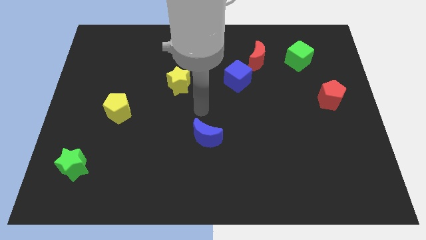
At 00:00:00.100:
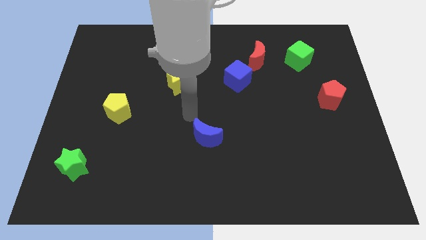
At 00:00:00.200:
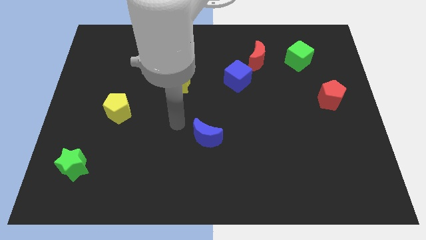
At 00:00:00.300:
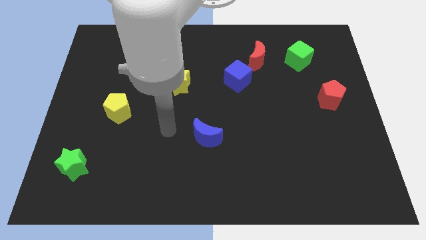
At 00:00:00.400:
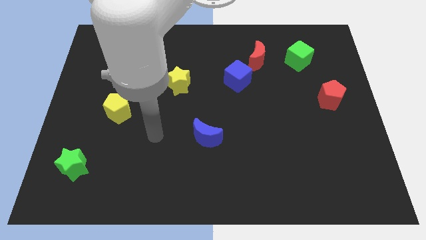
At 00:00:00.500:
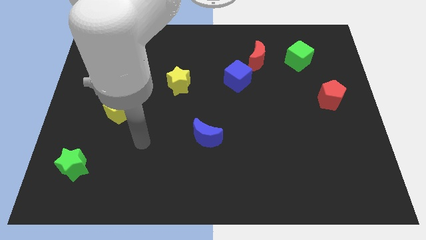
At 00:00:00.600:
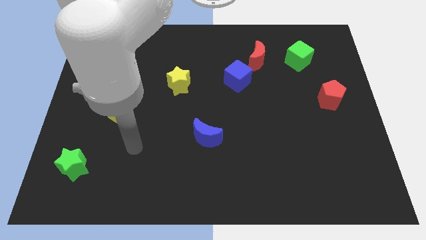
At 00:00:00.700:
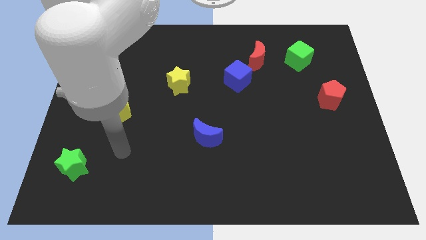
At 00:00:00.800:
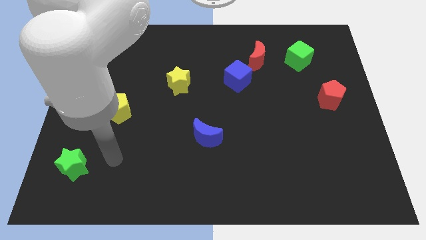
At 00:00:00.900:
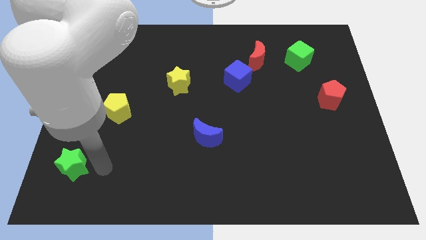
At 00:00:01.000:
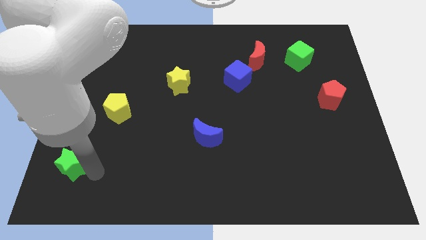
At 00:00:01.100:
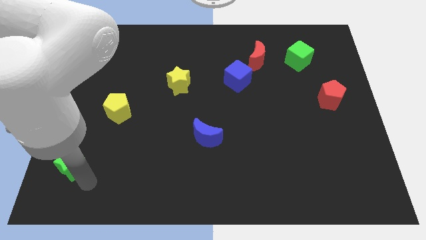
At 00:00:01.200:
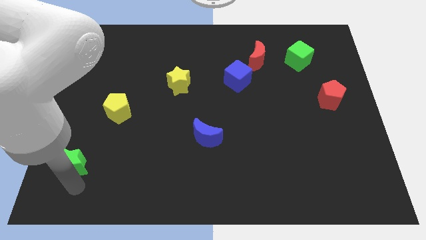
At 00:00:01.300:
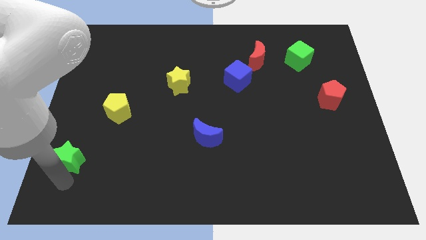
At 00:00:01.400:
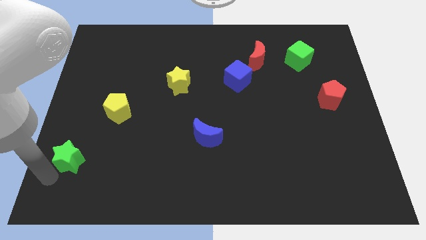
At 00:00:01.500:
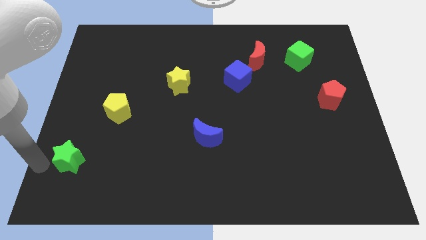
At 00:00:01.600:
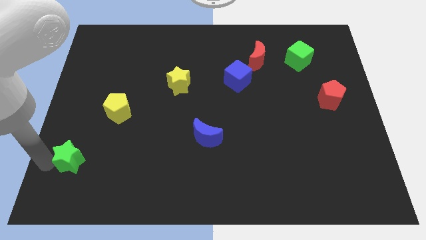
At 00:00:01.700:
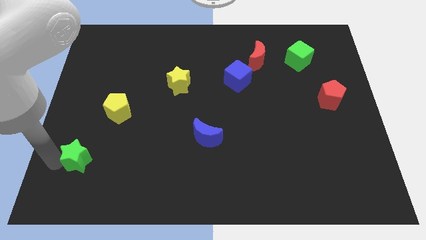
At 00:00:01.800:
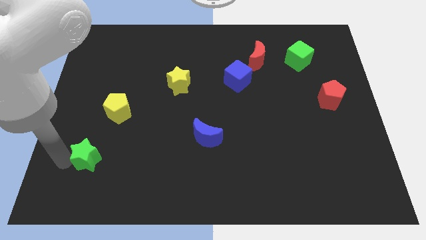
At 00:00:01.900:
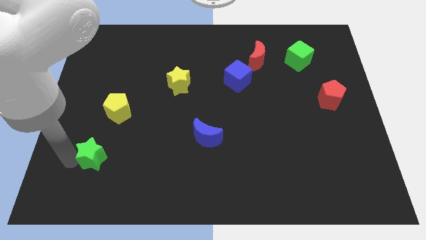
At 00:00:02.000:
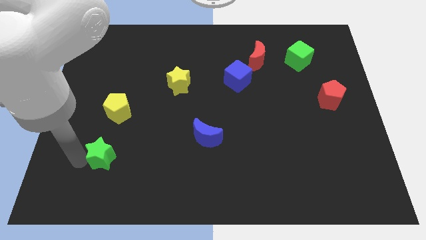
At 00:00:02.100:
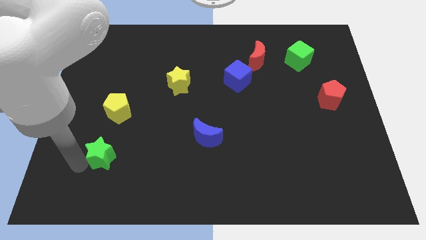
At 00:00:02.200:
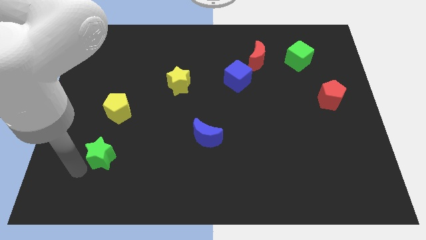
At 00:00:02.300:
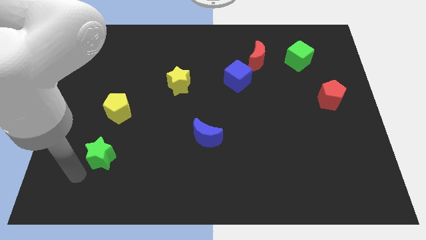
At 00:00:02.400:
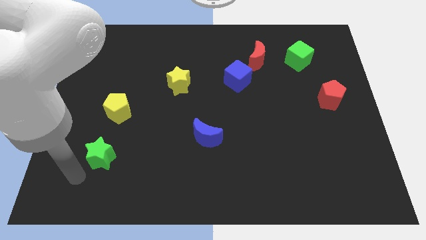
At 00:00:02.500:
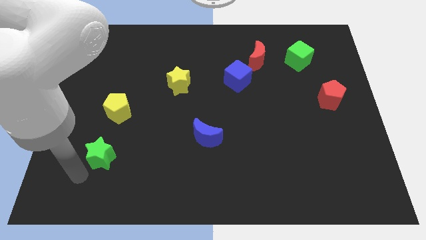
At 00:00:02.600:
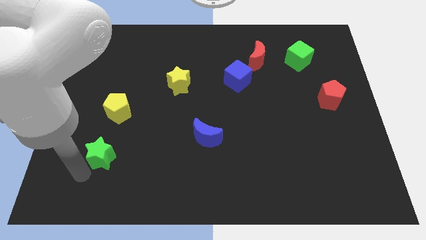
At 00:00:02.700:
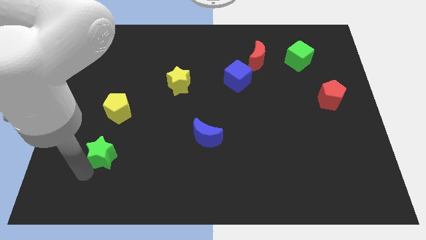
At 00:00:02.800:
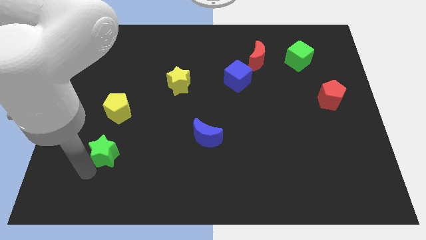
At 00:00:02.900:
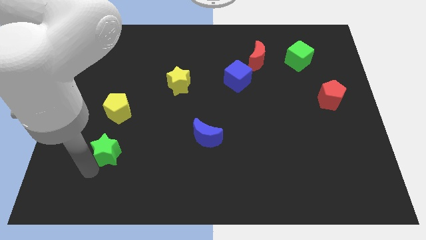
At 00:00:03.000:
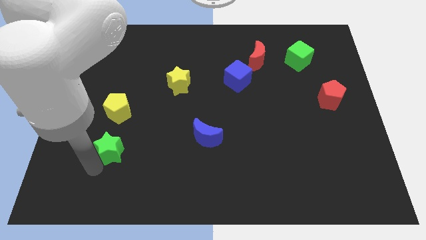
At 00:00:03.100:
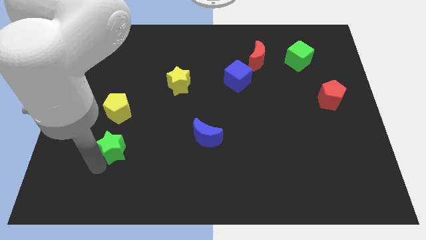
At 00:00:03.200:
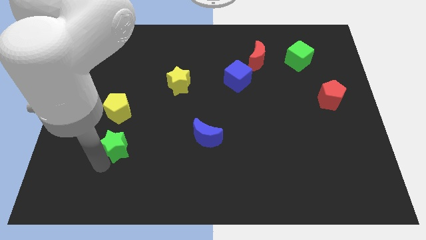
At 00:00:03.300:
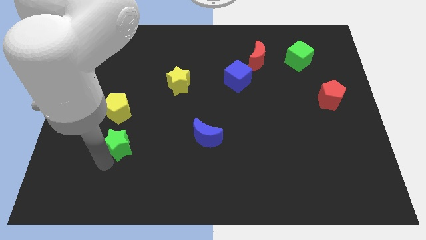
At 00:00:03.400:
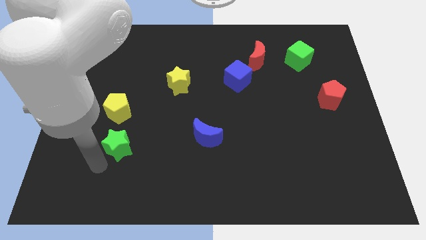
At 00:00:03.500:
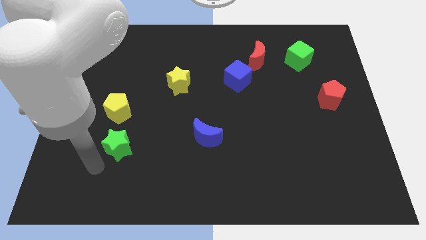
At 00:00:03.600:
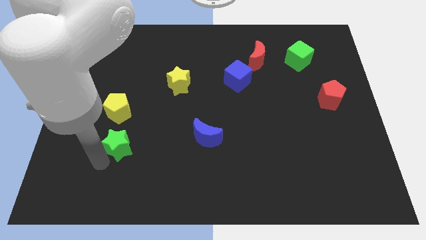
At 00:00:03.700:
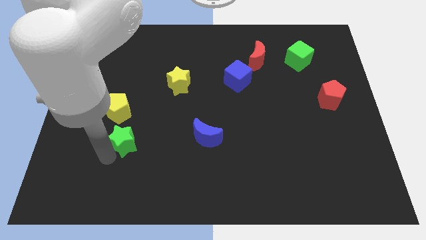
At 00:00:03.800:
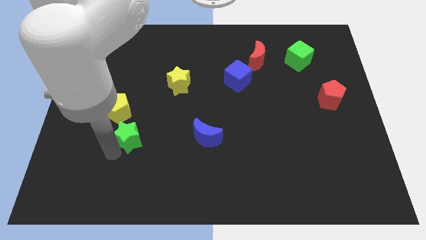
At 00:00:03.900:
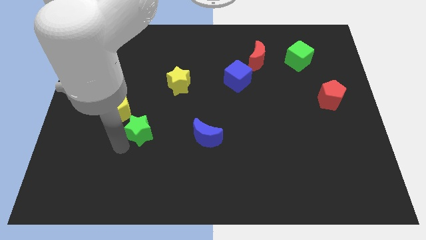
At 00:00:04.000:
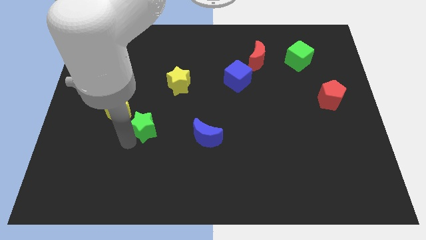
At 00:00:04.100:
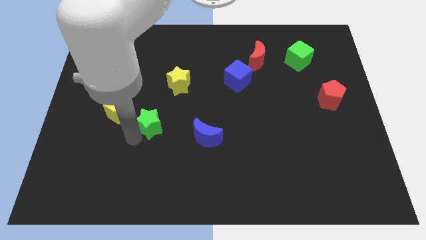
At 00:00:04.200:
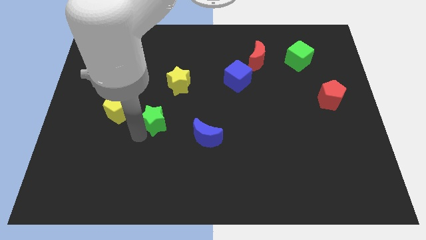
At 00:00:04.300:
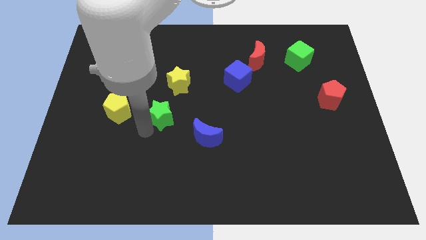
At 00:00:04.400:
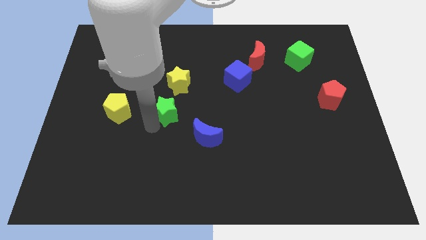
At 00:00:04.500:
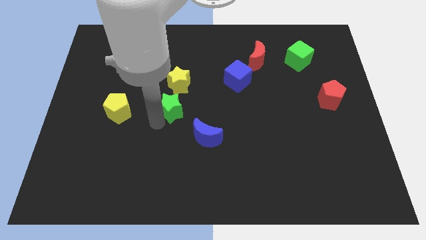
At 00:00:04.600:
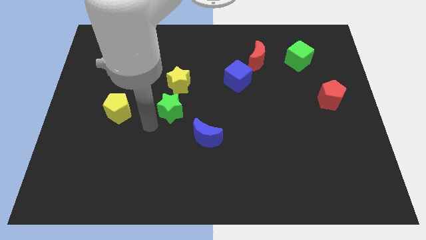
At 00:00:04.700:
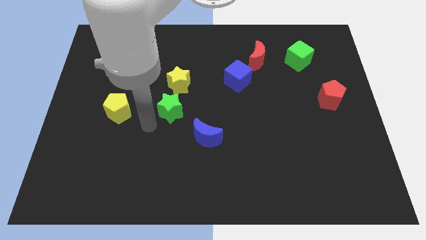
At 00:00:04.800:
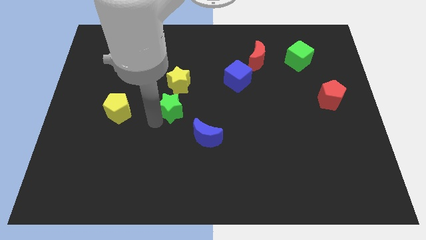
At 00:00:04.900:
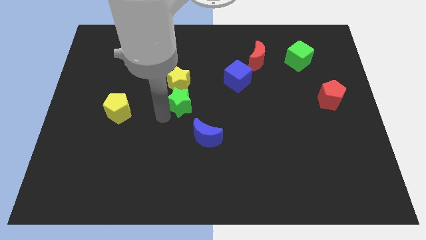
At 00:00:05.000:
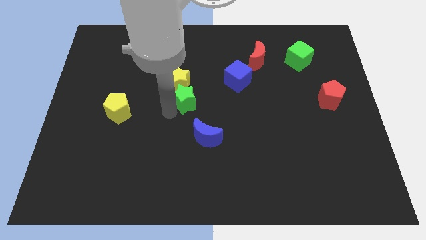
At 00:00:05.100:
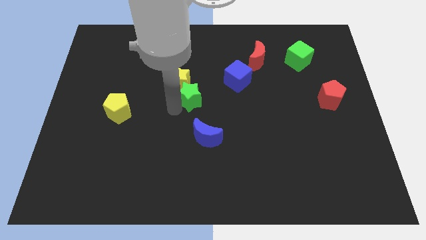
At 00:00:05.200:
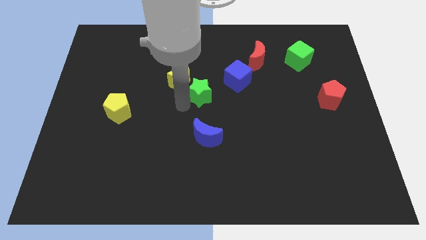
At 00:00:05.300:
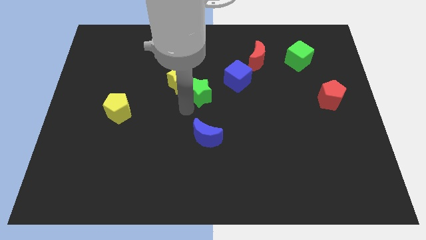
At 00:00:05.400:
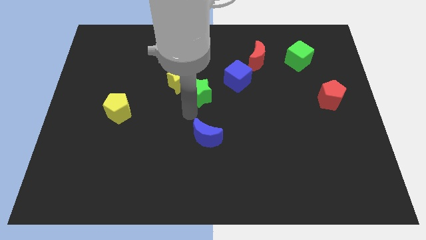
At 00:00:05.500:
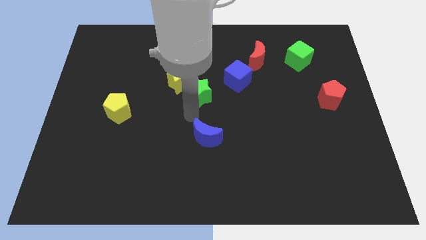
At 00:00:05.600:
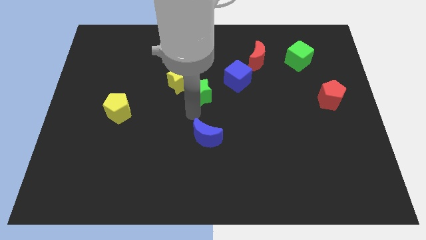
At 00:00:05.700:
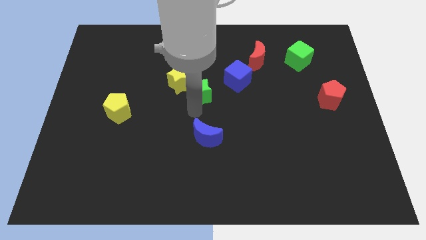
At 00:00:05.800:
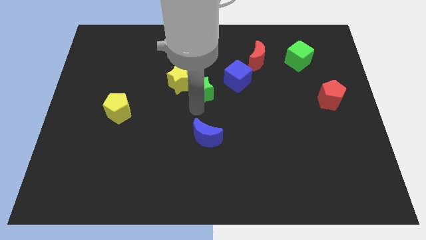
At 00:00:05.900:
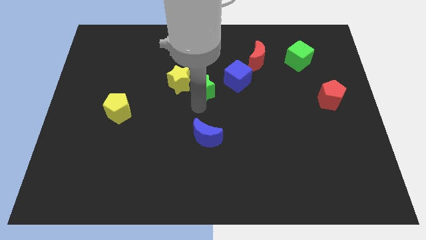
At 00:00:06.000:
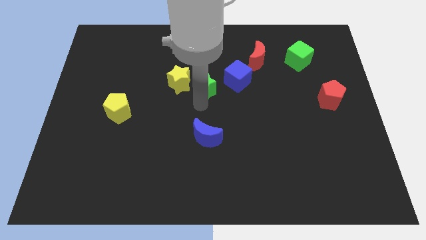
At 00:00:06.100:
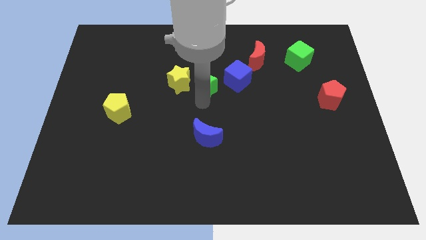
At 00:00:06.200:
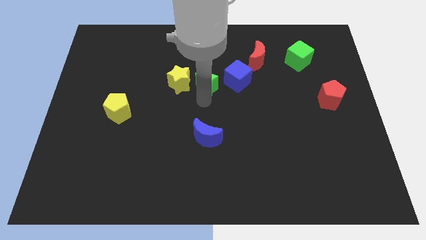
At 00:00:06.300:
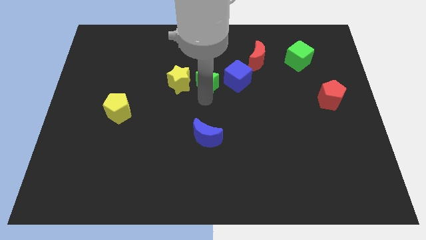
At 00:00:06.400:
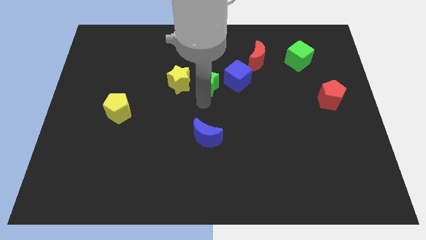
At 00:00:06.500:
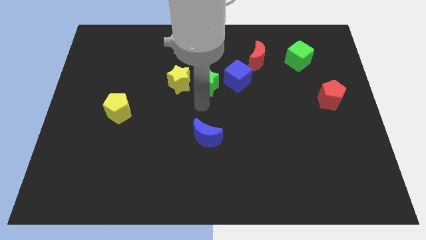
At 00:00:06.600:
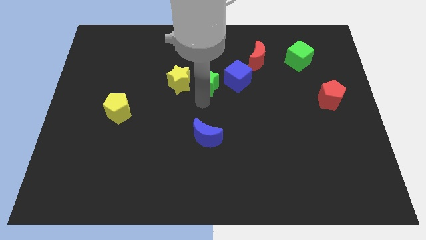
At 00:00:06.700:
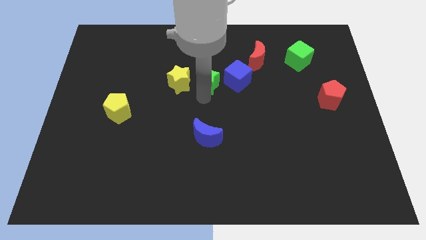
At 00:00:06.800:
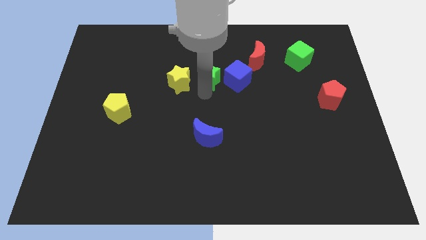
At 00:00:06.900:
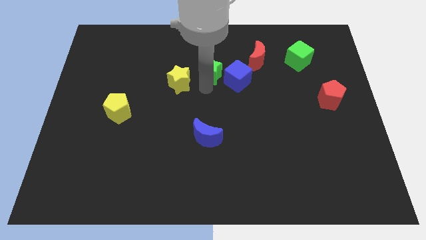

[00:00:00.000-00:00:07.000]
move the green star left of the red moon

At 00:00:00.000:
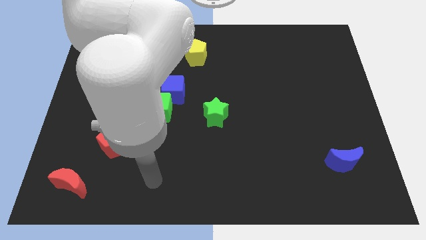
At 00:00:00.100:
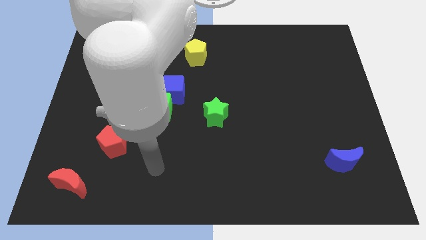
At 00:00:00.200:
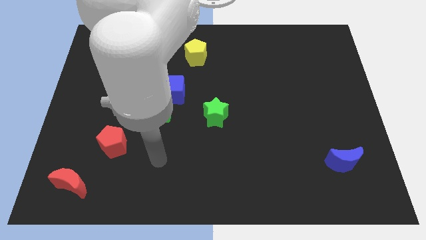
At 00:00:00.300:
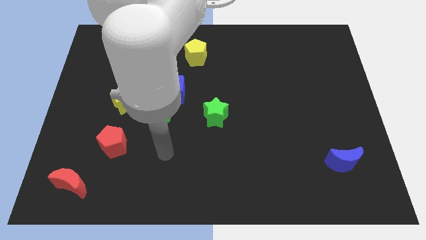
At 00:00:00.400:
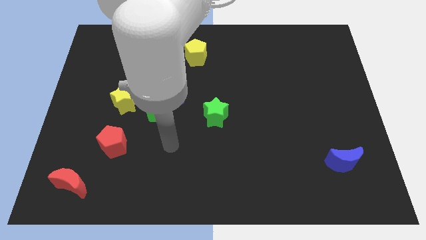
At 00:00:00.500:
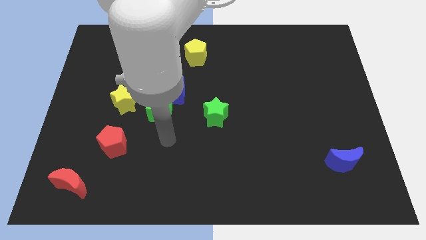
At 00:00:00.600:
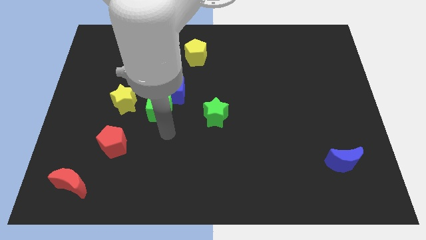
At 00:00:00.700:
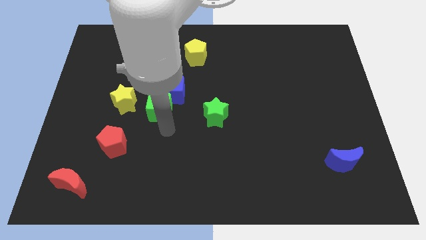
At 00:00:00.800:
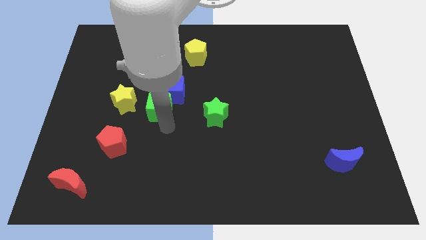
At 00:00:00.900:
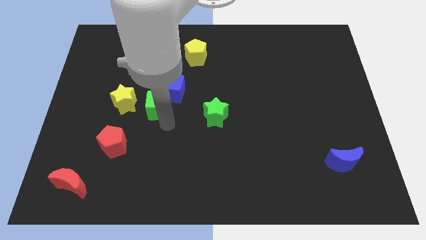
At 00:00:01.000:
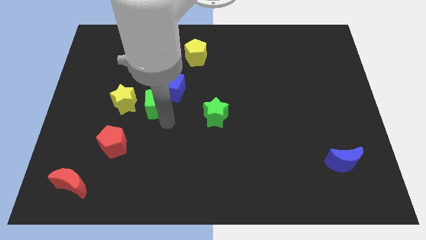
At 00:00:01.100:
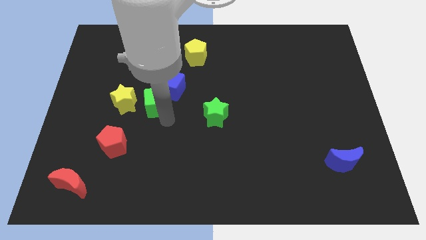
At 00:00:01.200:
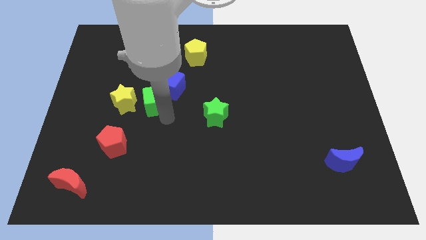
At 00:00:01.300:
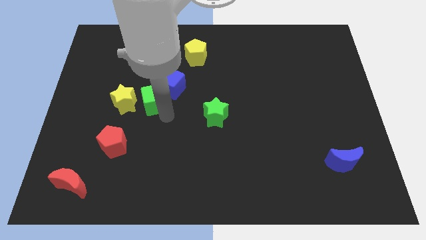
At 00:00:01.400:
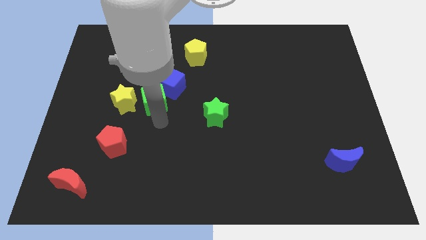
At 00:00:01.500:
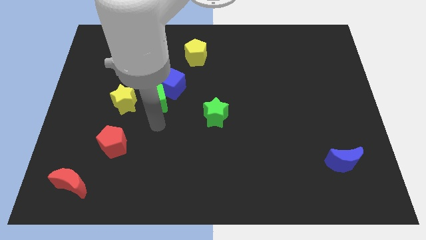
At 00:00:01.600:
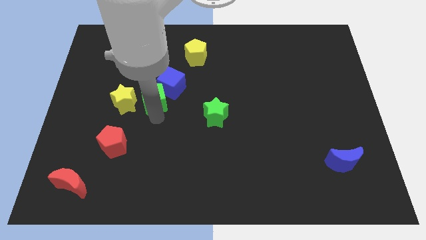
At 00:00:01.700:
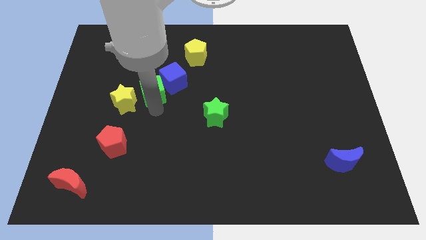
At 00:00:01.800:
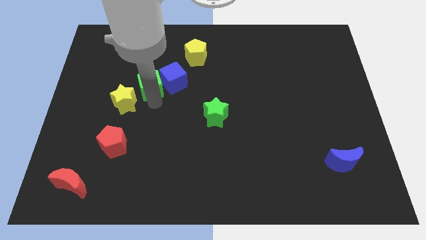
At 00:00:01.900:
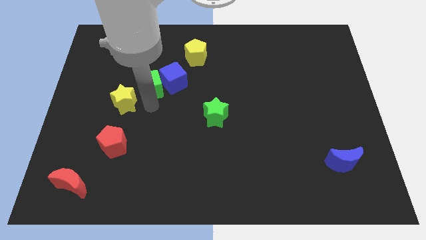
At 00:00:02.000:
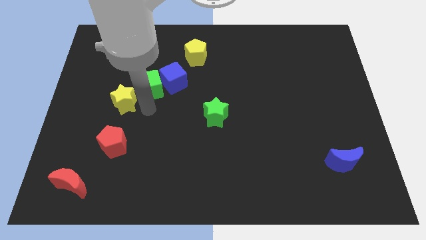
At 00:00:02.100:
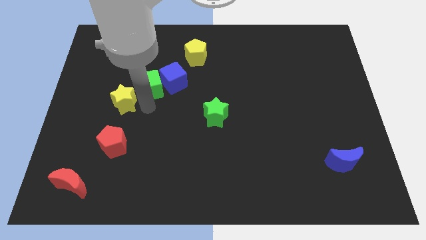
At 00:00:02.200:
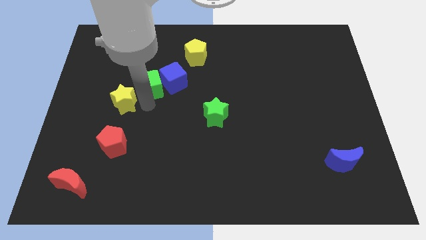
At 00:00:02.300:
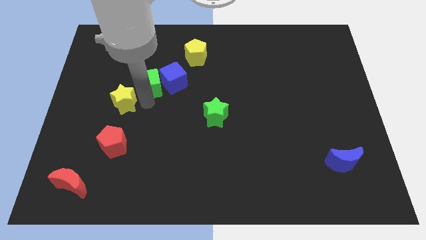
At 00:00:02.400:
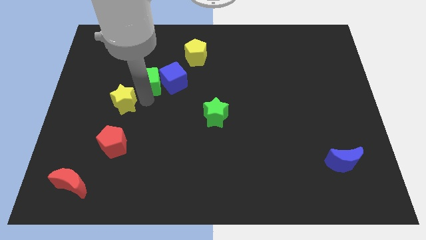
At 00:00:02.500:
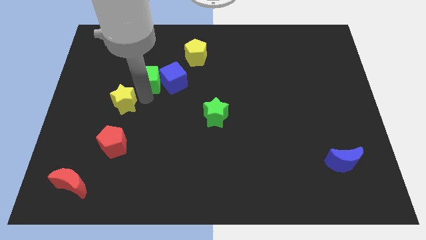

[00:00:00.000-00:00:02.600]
move the green cube diagonally up and to the left of the blue cube
